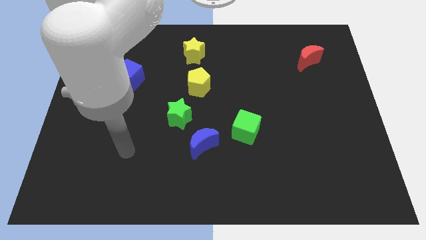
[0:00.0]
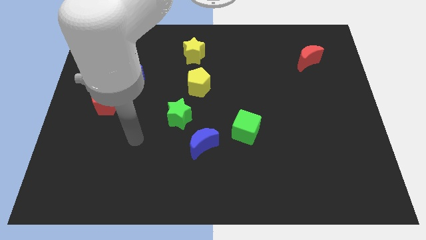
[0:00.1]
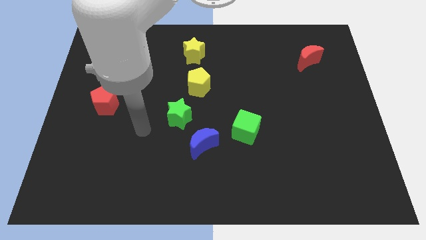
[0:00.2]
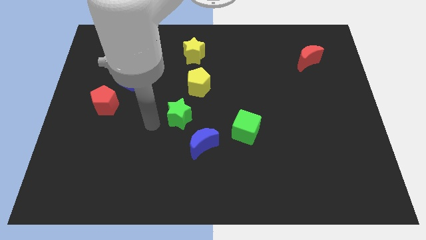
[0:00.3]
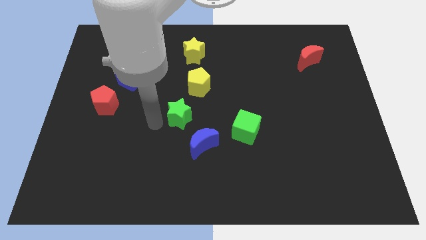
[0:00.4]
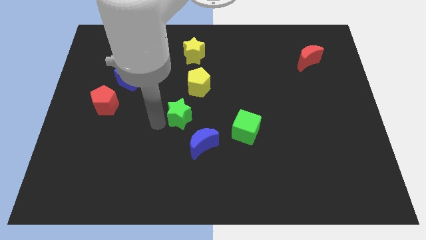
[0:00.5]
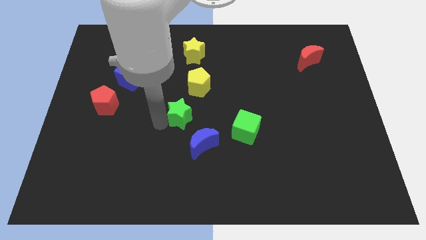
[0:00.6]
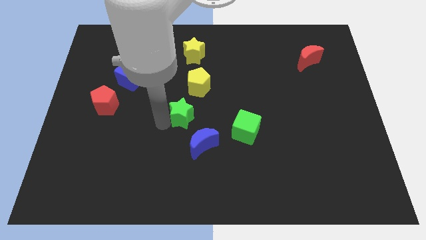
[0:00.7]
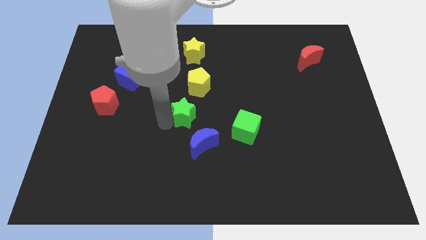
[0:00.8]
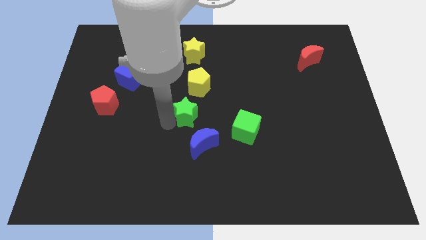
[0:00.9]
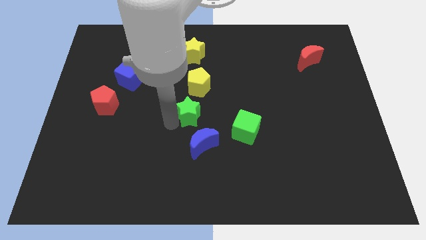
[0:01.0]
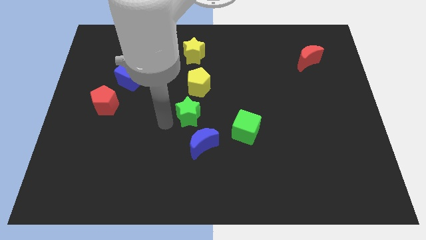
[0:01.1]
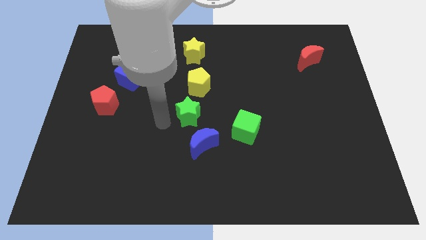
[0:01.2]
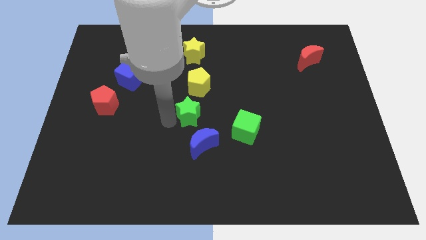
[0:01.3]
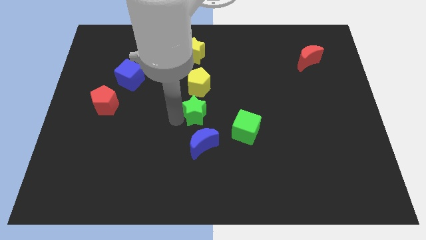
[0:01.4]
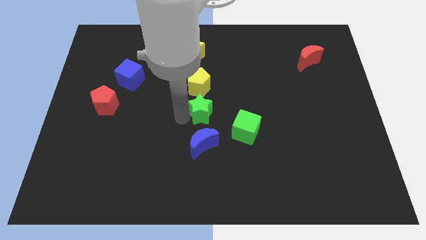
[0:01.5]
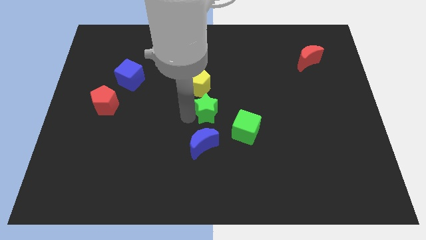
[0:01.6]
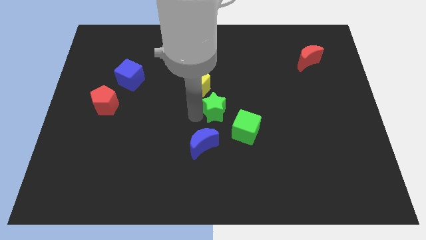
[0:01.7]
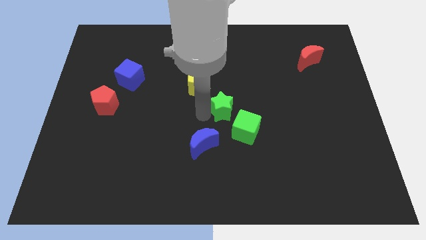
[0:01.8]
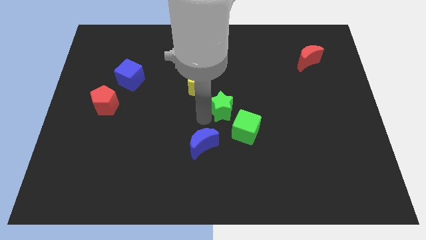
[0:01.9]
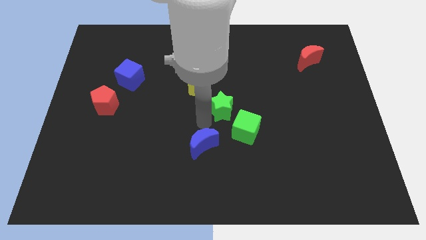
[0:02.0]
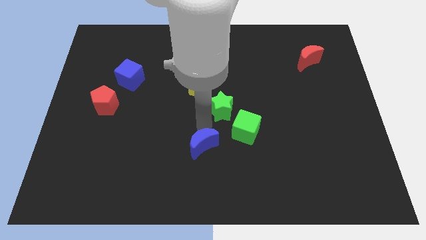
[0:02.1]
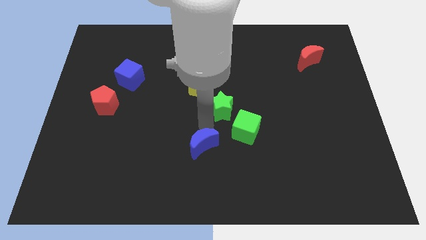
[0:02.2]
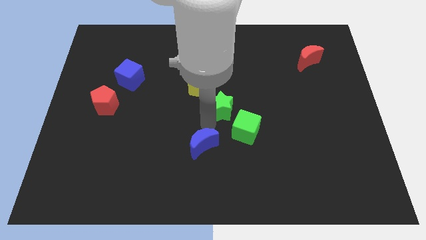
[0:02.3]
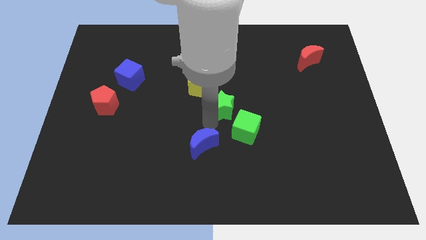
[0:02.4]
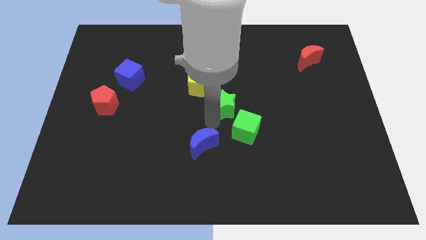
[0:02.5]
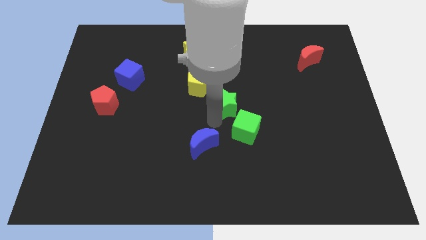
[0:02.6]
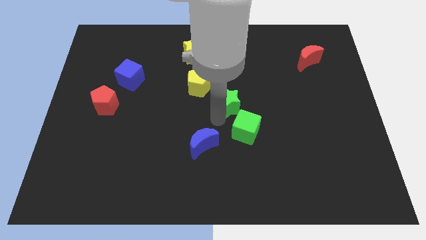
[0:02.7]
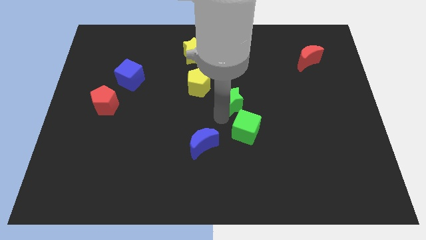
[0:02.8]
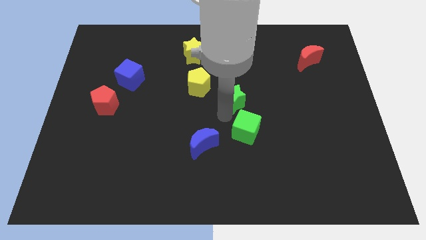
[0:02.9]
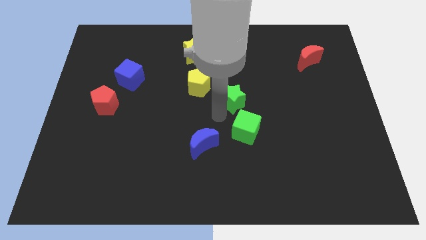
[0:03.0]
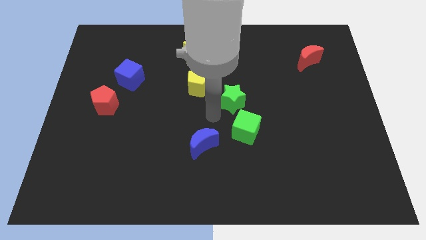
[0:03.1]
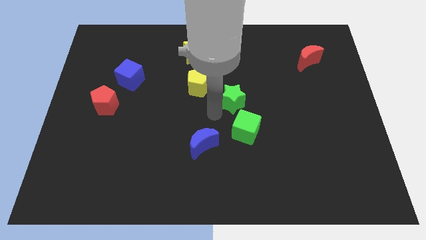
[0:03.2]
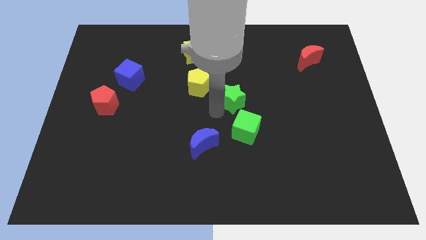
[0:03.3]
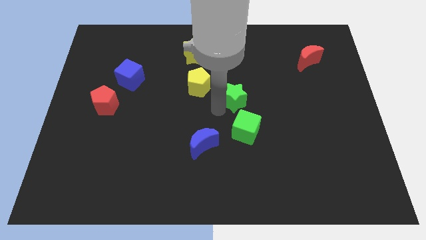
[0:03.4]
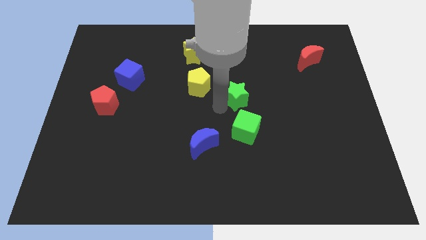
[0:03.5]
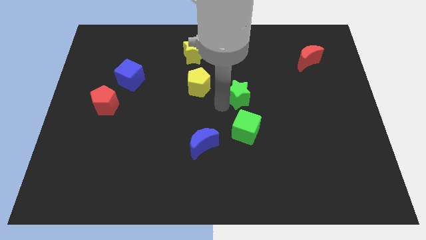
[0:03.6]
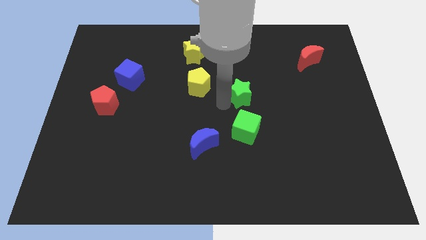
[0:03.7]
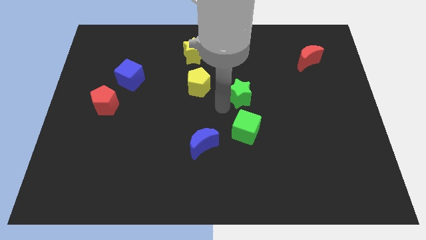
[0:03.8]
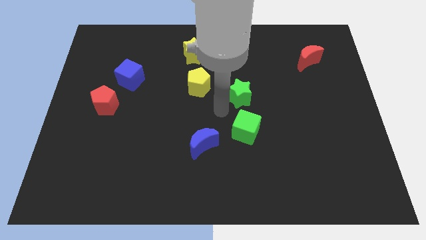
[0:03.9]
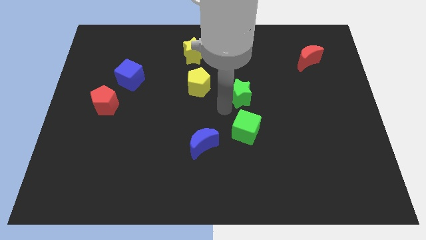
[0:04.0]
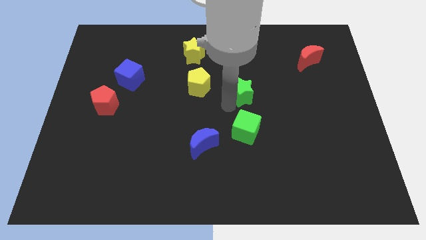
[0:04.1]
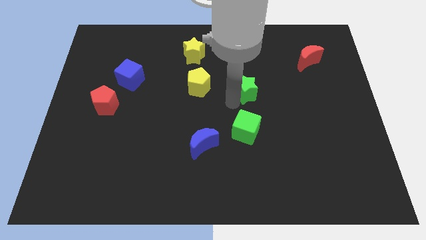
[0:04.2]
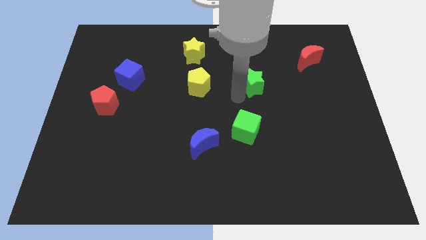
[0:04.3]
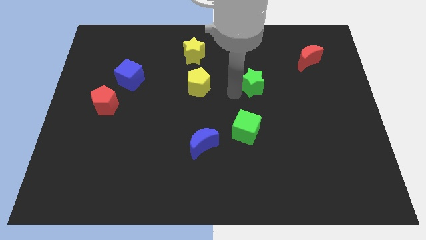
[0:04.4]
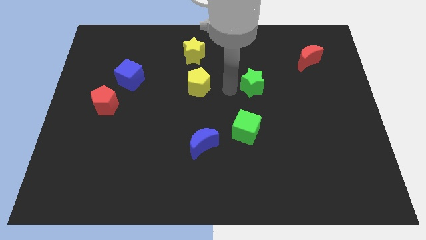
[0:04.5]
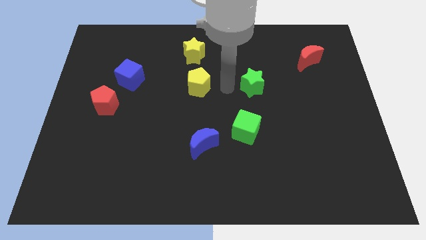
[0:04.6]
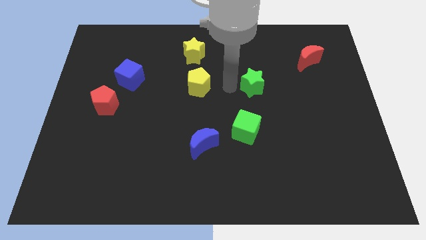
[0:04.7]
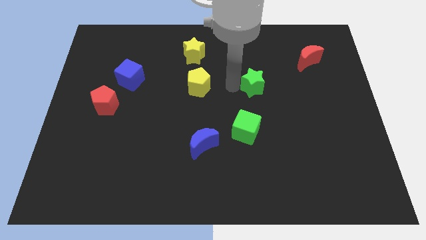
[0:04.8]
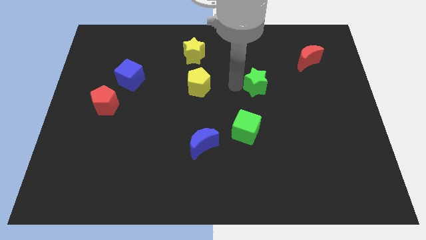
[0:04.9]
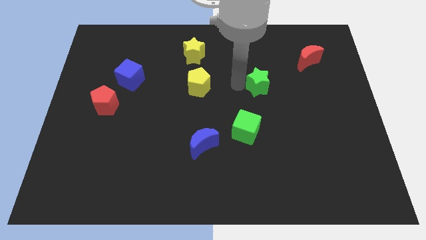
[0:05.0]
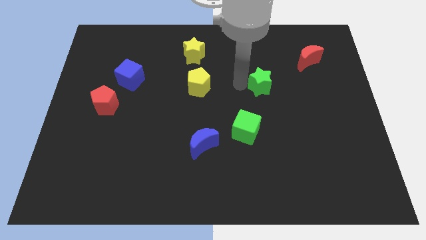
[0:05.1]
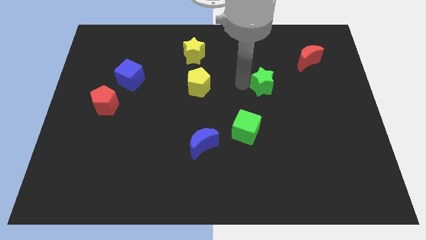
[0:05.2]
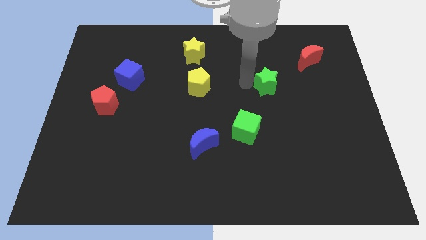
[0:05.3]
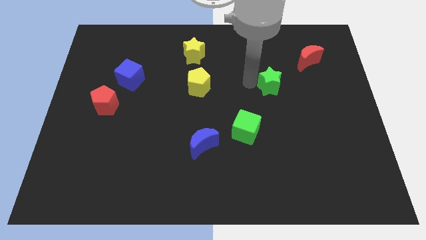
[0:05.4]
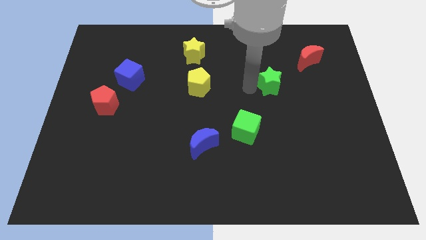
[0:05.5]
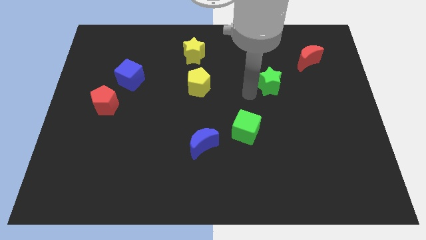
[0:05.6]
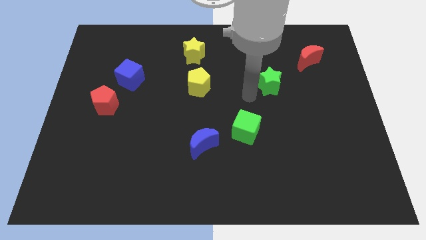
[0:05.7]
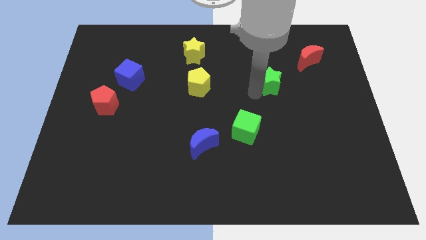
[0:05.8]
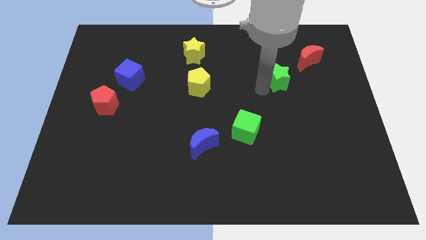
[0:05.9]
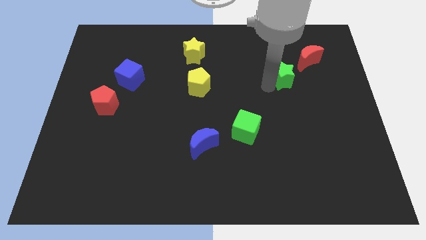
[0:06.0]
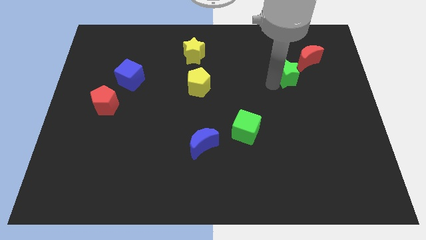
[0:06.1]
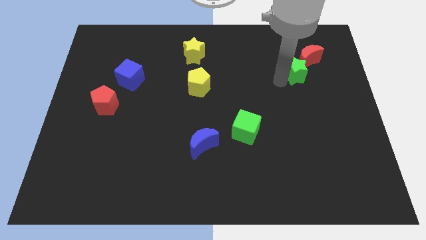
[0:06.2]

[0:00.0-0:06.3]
move the green star towards the red moon
